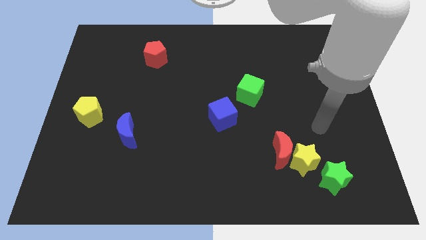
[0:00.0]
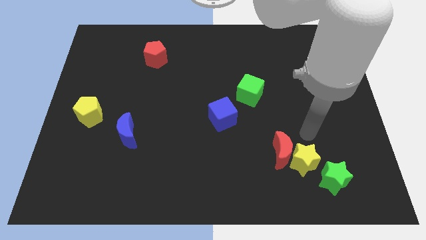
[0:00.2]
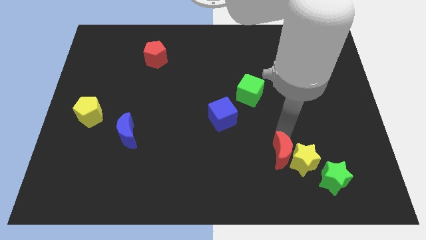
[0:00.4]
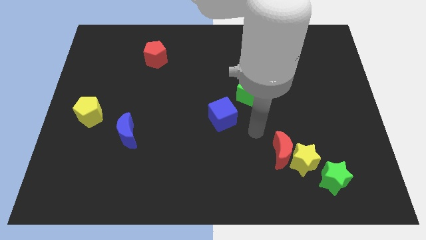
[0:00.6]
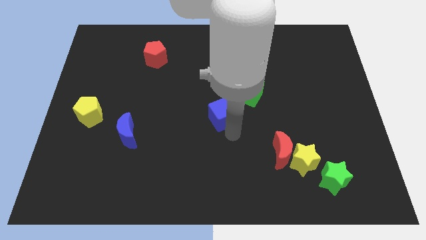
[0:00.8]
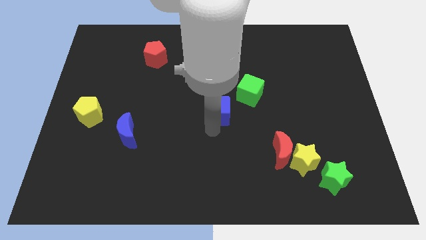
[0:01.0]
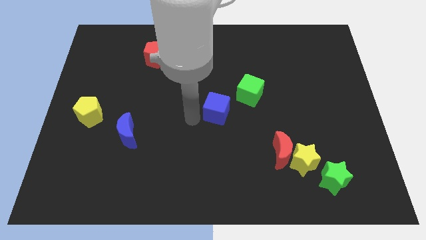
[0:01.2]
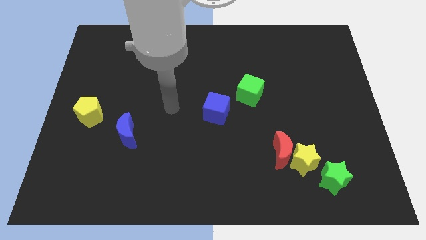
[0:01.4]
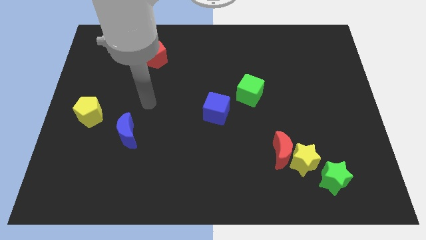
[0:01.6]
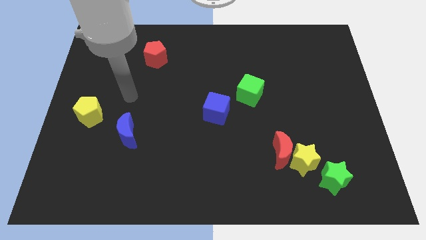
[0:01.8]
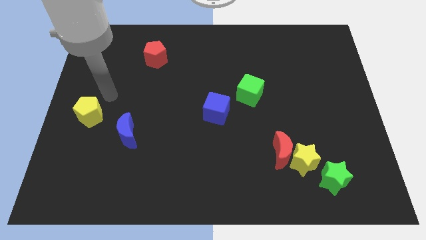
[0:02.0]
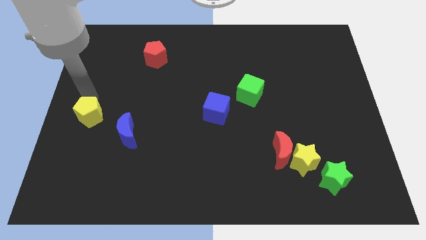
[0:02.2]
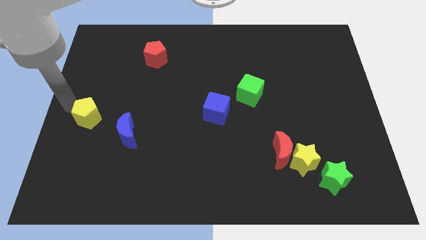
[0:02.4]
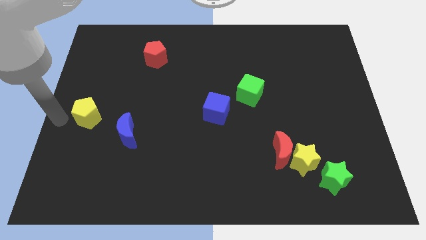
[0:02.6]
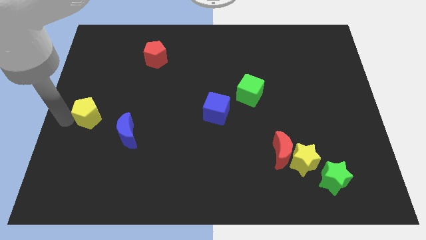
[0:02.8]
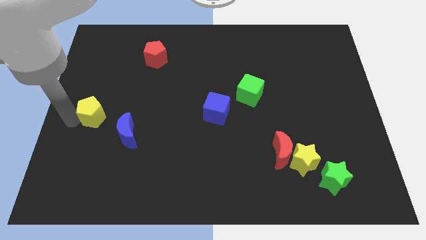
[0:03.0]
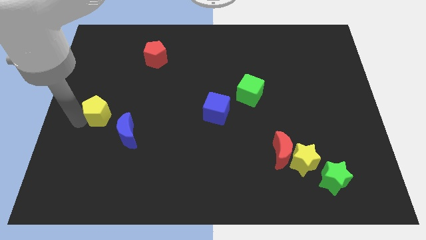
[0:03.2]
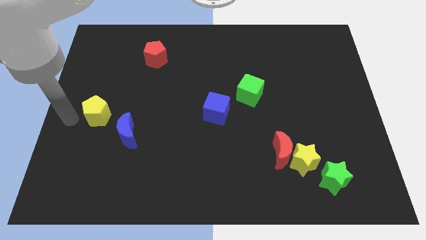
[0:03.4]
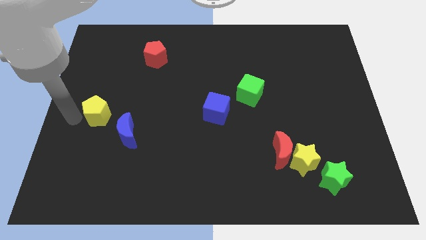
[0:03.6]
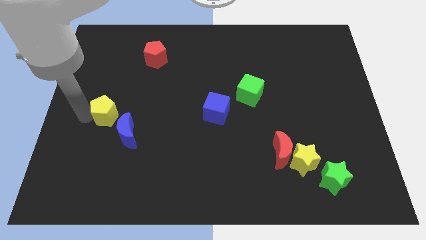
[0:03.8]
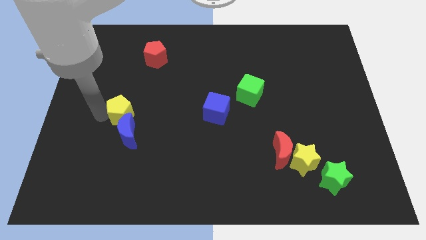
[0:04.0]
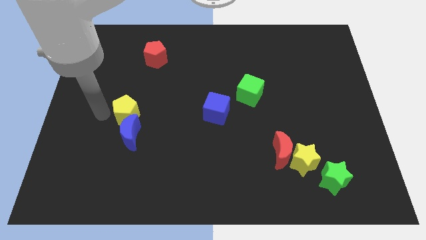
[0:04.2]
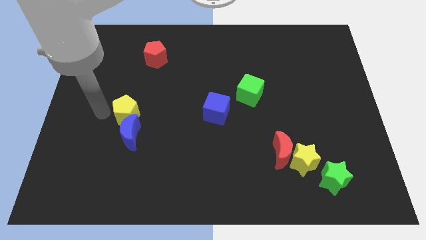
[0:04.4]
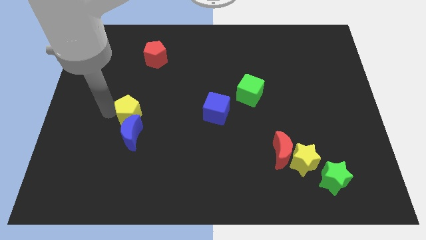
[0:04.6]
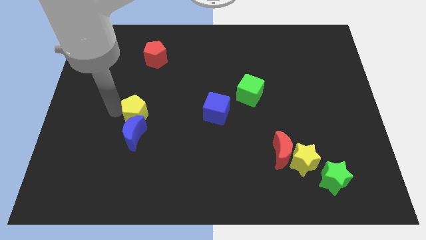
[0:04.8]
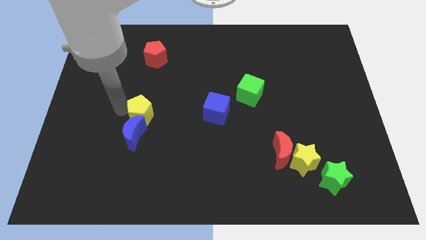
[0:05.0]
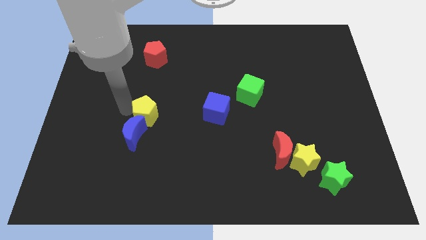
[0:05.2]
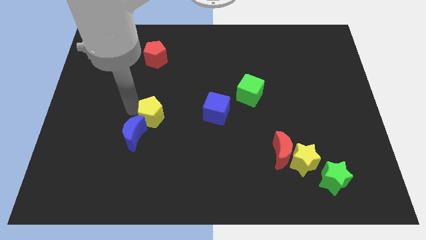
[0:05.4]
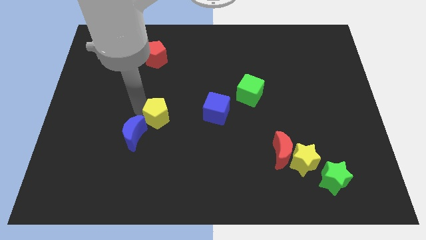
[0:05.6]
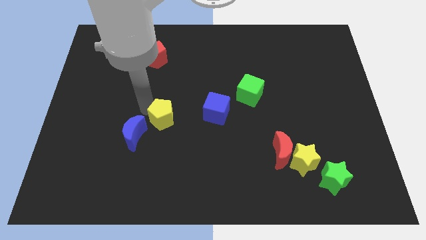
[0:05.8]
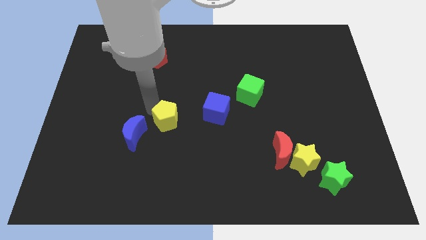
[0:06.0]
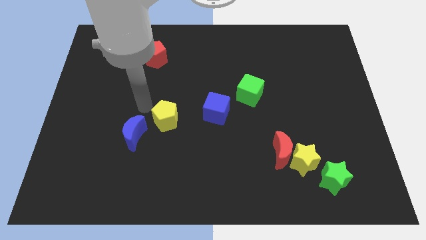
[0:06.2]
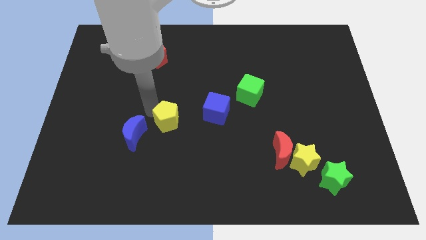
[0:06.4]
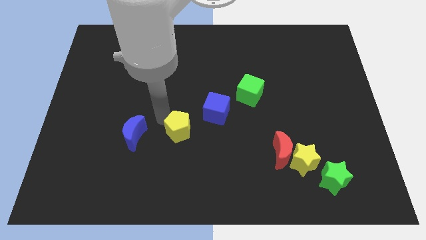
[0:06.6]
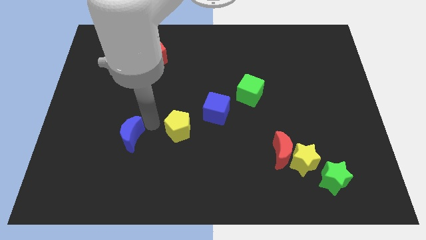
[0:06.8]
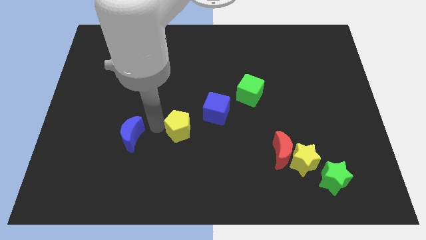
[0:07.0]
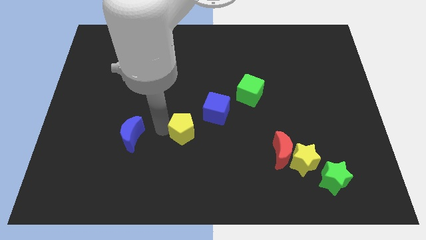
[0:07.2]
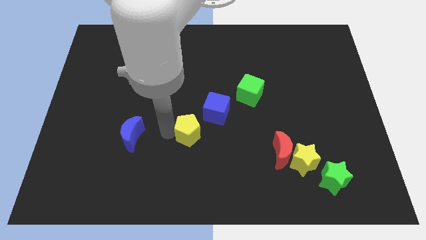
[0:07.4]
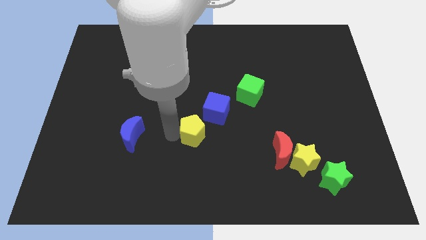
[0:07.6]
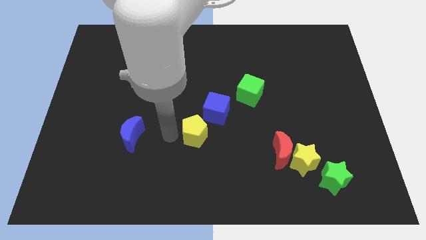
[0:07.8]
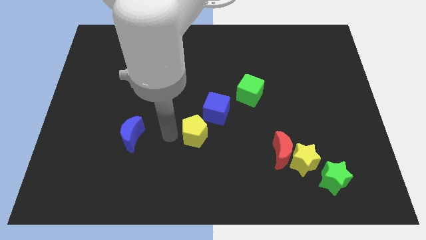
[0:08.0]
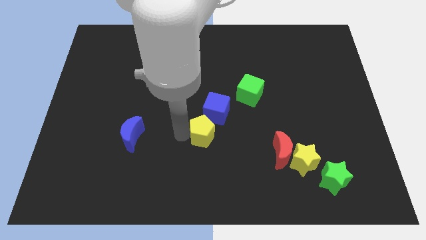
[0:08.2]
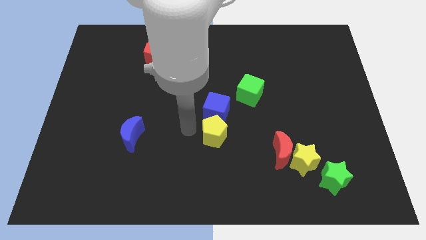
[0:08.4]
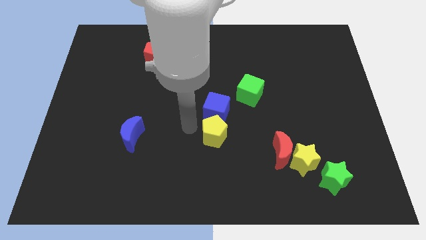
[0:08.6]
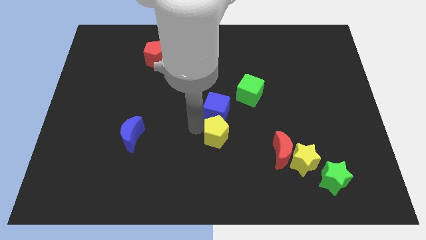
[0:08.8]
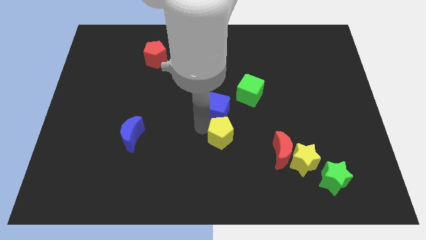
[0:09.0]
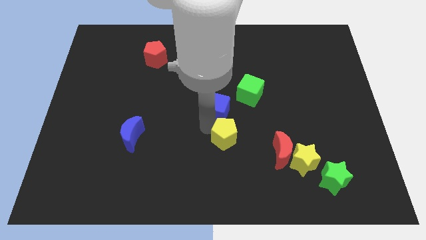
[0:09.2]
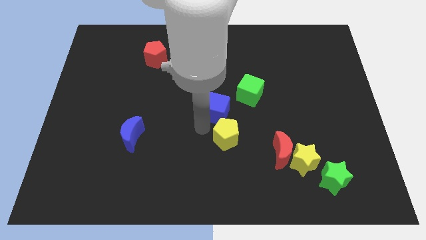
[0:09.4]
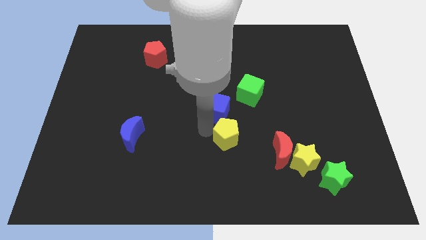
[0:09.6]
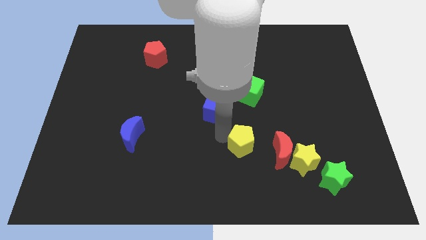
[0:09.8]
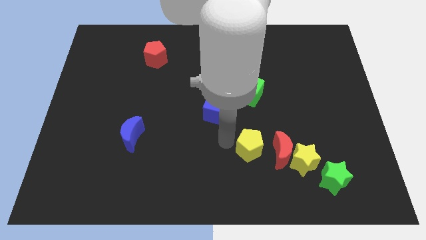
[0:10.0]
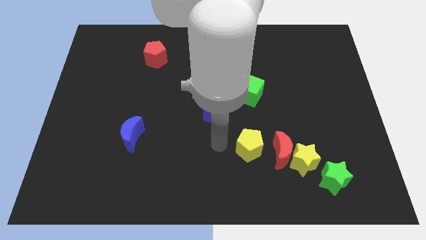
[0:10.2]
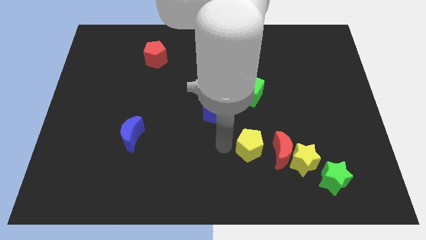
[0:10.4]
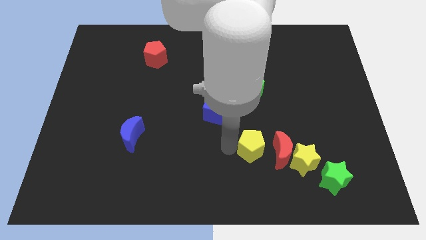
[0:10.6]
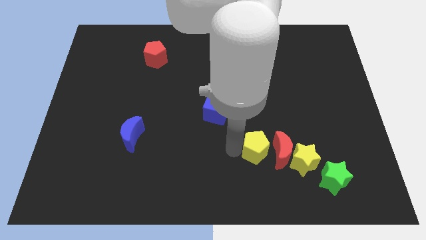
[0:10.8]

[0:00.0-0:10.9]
slide the yellow pentagon to the red moon
